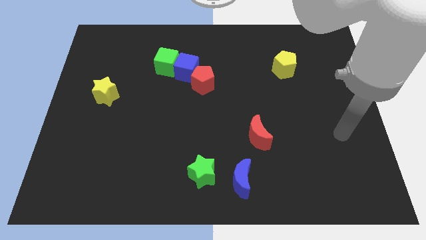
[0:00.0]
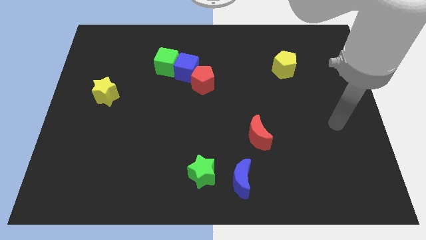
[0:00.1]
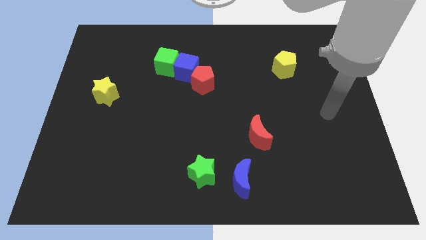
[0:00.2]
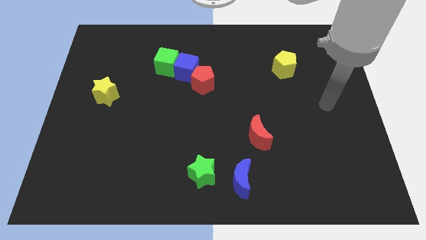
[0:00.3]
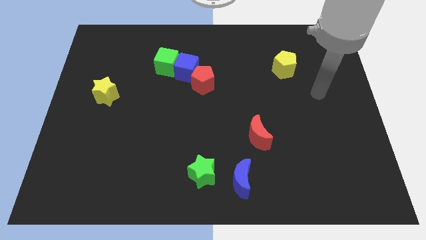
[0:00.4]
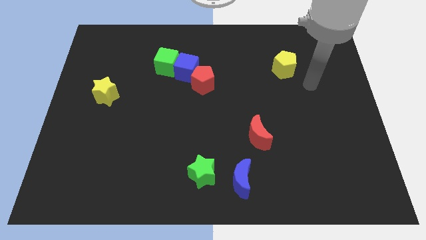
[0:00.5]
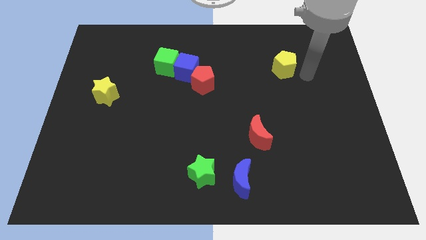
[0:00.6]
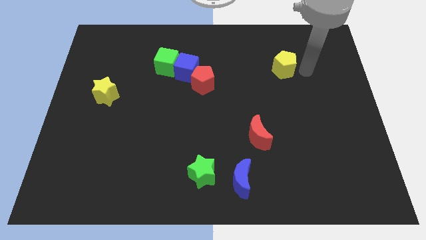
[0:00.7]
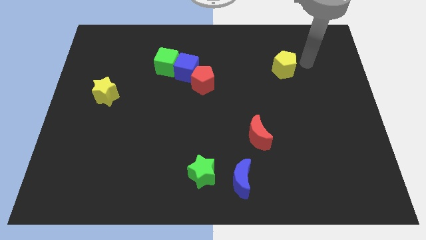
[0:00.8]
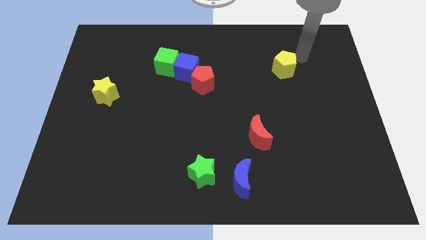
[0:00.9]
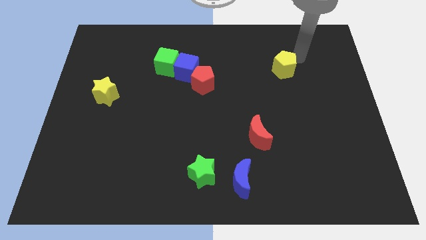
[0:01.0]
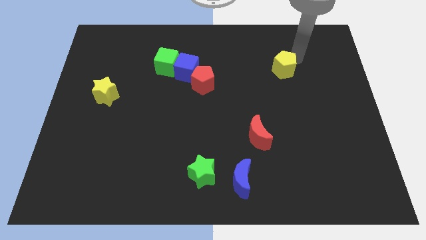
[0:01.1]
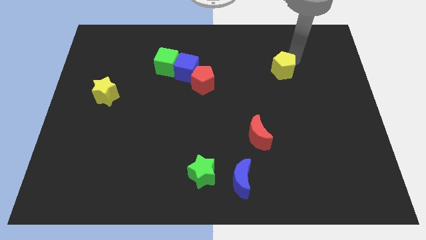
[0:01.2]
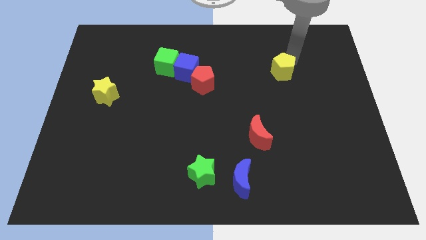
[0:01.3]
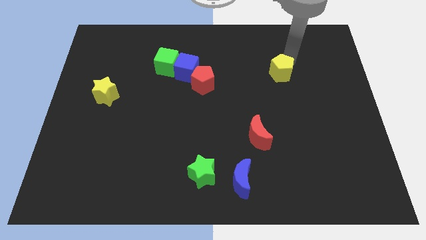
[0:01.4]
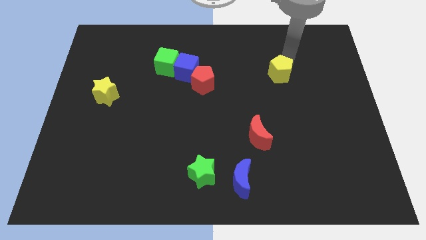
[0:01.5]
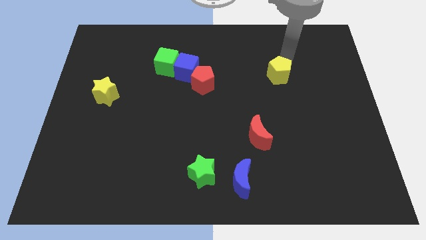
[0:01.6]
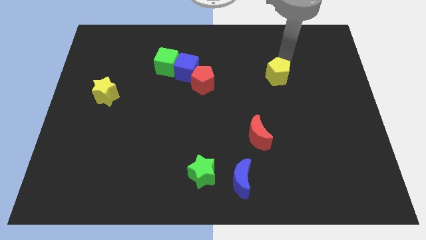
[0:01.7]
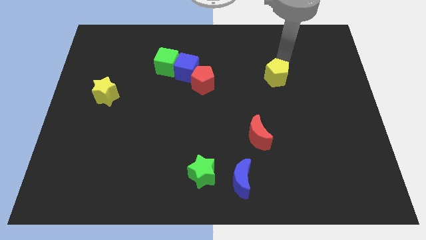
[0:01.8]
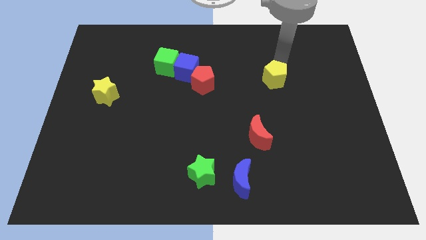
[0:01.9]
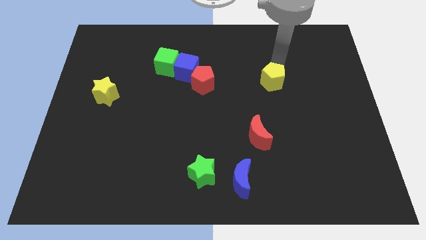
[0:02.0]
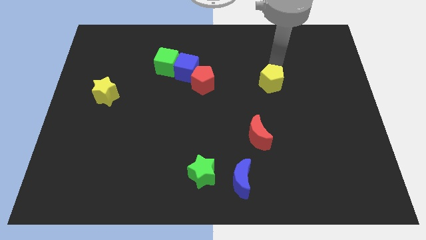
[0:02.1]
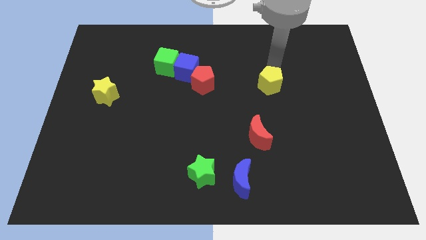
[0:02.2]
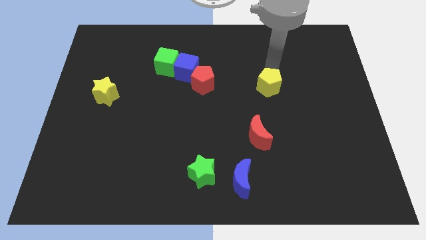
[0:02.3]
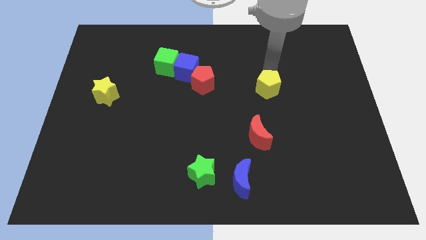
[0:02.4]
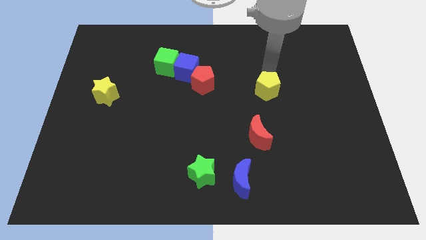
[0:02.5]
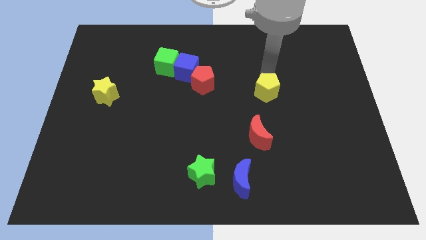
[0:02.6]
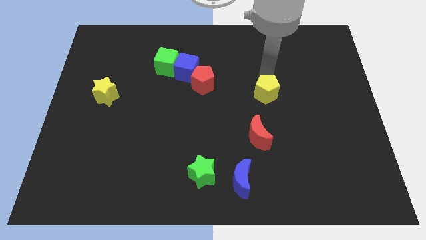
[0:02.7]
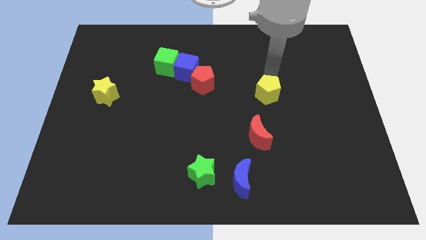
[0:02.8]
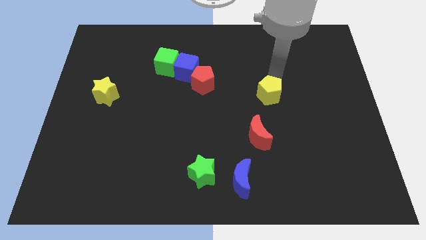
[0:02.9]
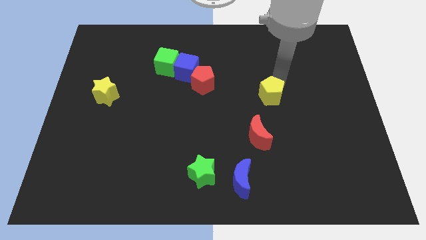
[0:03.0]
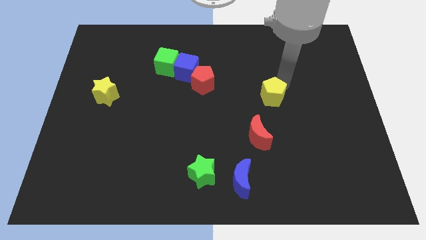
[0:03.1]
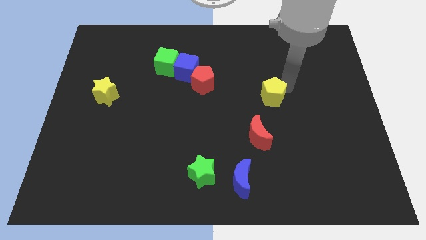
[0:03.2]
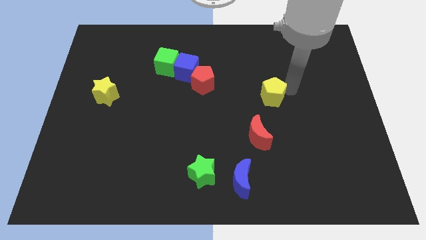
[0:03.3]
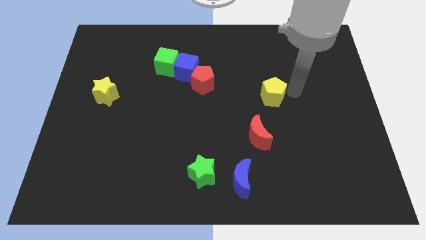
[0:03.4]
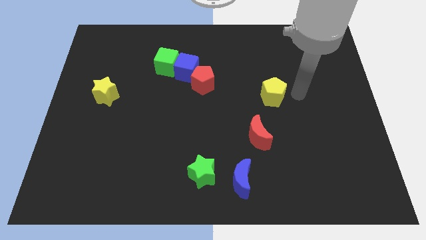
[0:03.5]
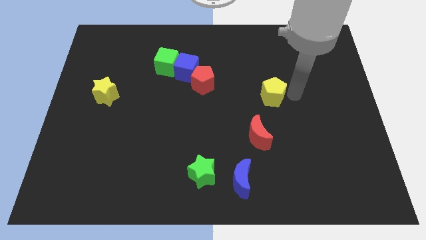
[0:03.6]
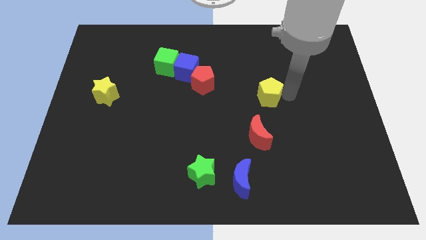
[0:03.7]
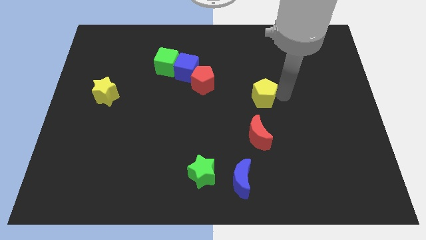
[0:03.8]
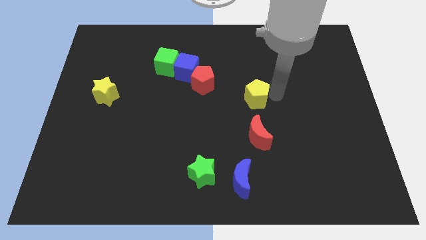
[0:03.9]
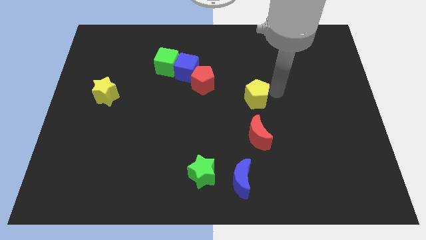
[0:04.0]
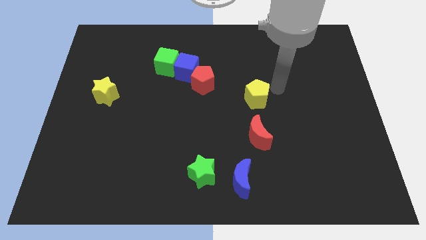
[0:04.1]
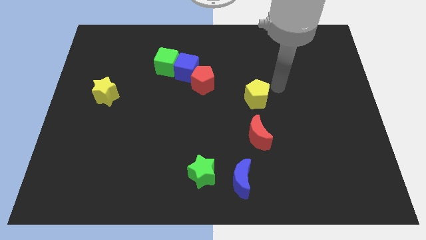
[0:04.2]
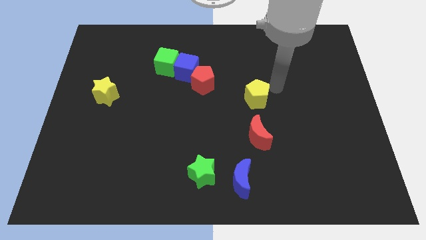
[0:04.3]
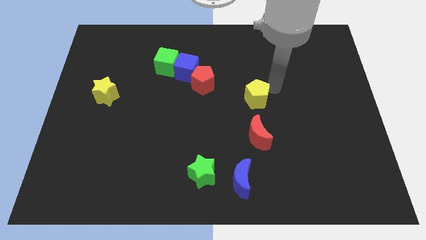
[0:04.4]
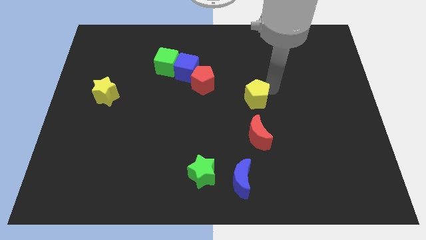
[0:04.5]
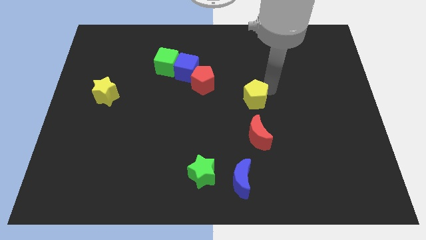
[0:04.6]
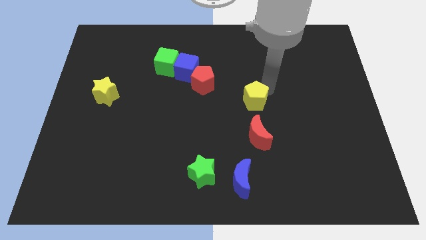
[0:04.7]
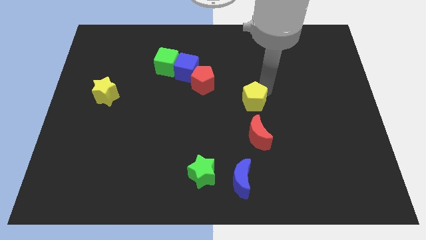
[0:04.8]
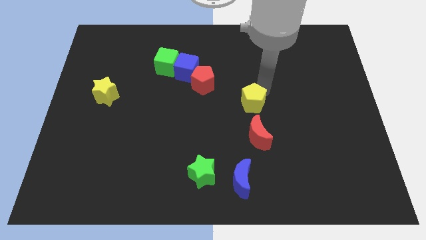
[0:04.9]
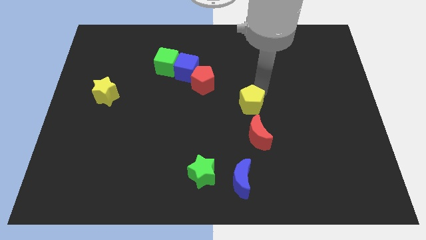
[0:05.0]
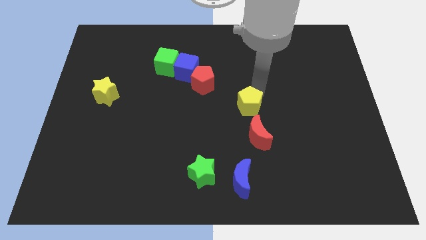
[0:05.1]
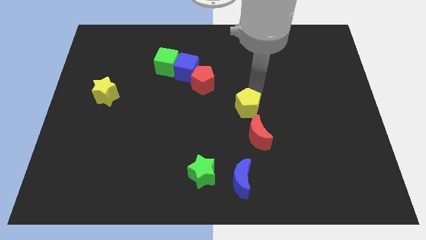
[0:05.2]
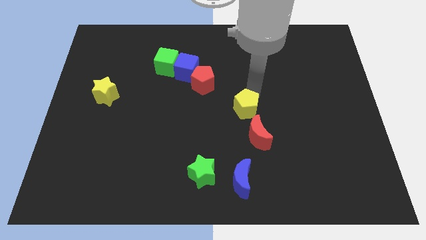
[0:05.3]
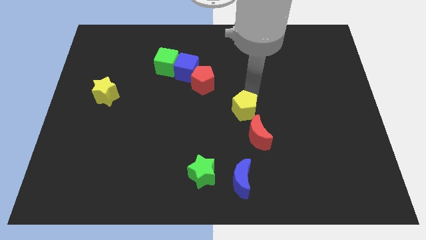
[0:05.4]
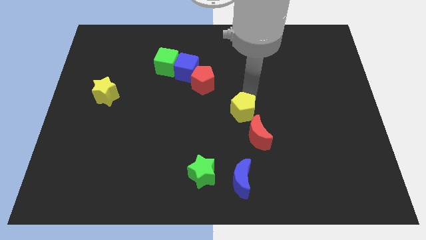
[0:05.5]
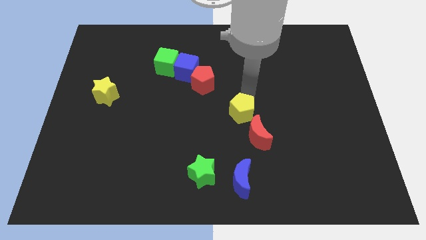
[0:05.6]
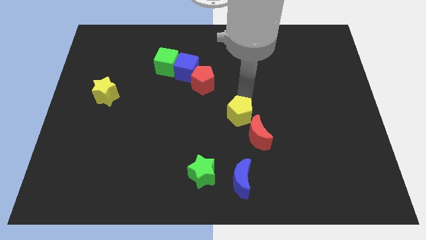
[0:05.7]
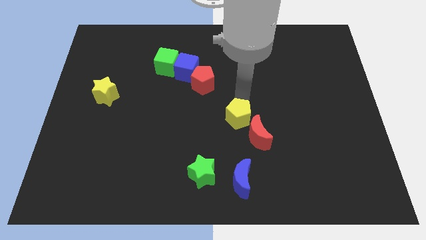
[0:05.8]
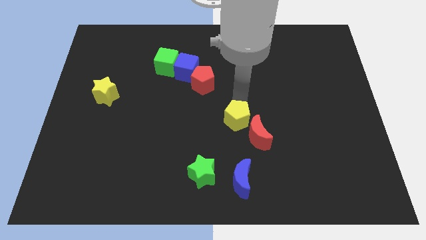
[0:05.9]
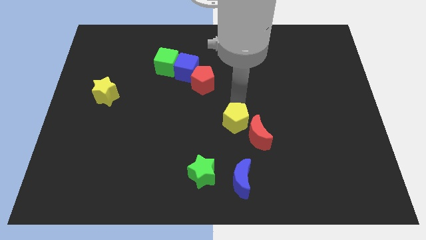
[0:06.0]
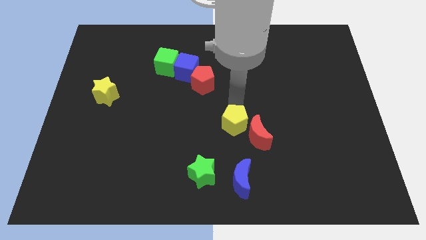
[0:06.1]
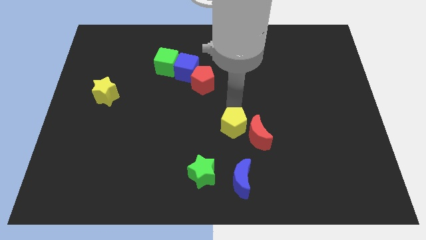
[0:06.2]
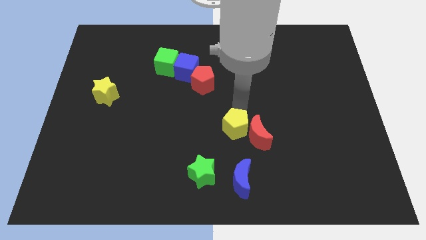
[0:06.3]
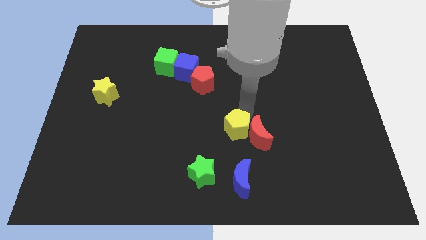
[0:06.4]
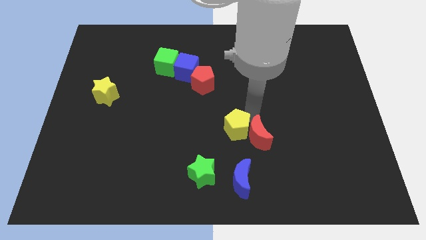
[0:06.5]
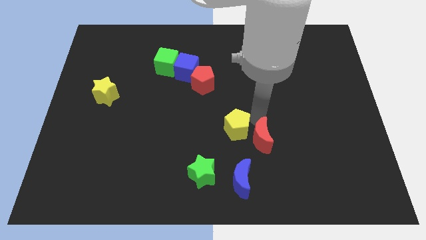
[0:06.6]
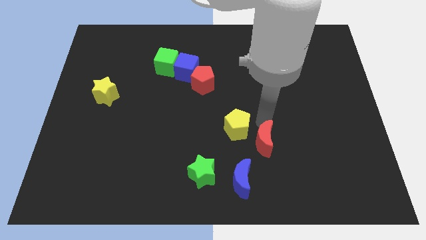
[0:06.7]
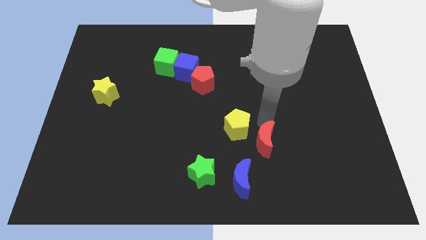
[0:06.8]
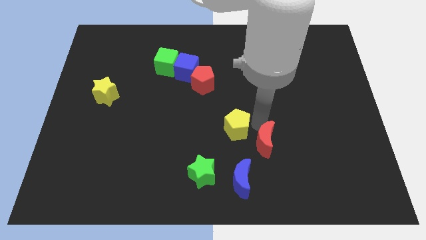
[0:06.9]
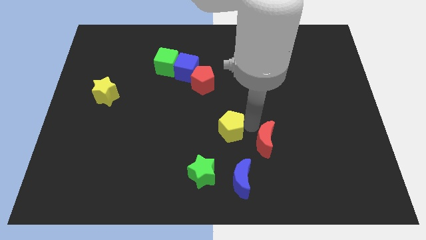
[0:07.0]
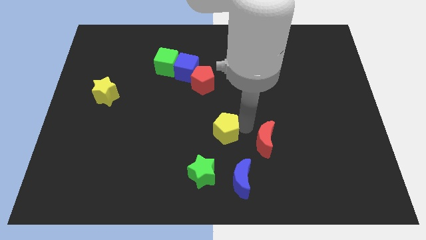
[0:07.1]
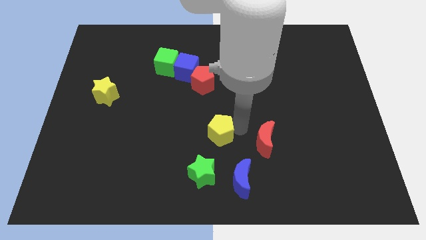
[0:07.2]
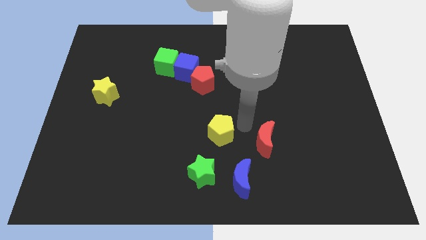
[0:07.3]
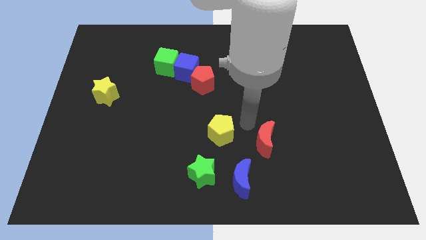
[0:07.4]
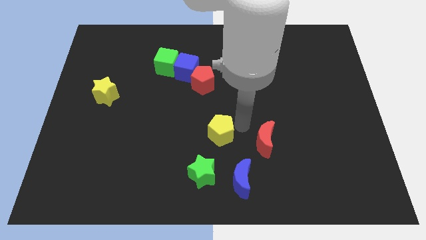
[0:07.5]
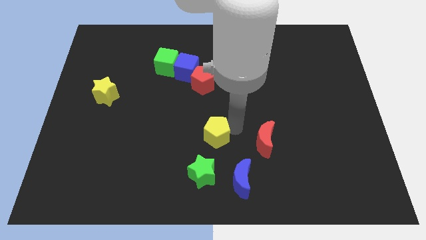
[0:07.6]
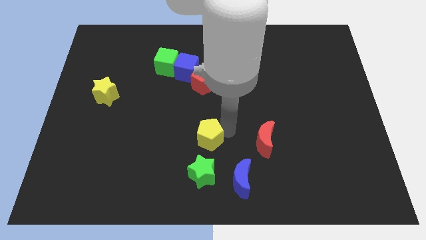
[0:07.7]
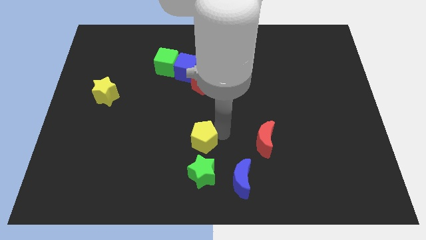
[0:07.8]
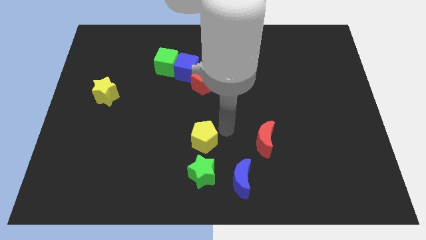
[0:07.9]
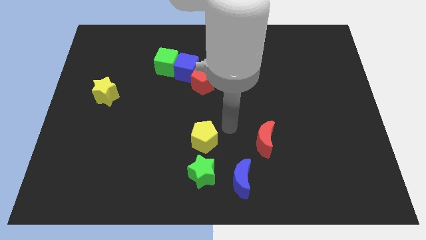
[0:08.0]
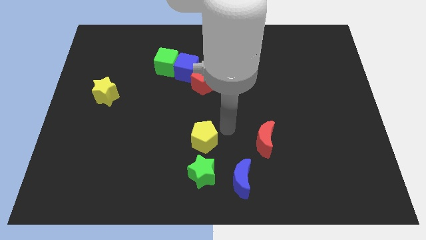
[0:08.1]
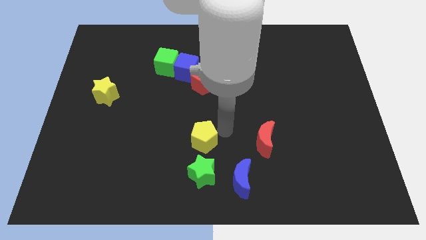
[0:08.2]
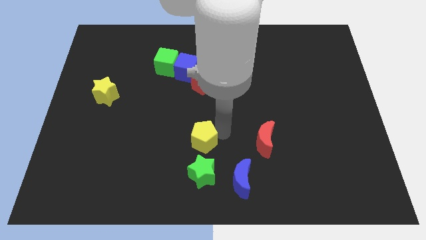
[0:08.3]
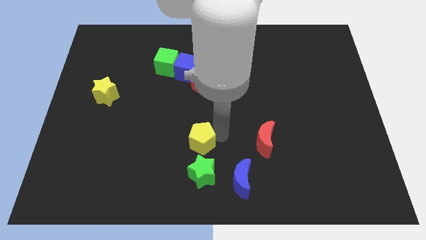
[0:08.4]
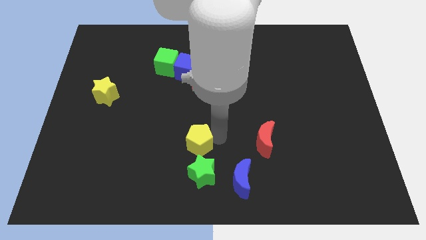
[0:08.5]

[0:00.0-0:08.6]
slide the yellow pentagon to the top left side of the green star
